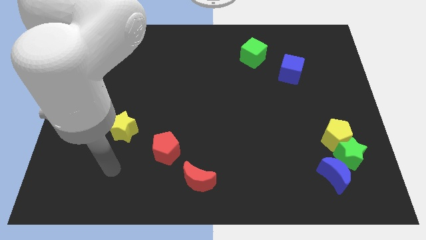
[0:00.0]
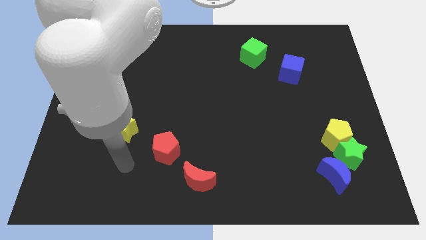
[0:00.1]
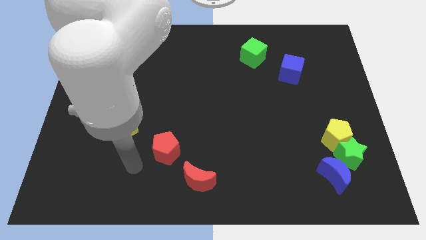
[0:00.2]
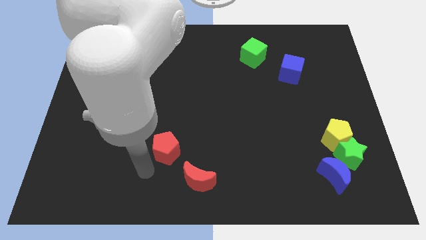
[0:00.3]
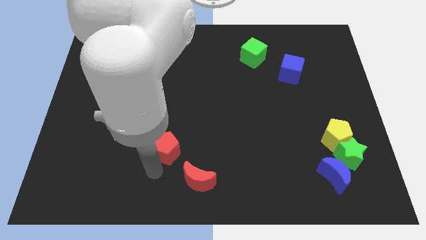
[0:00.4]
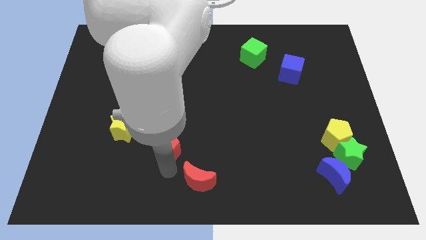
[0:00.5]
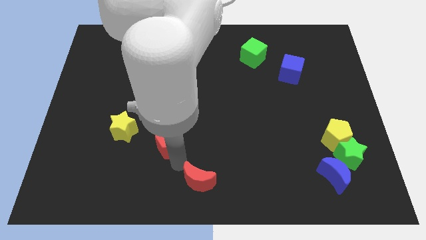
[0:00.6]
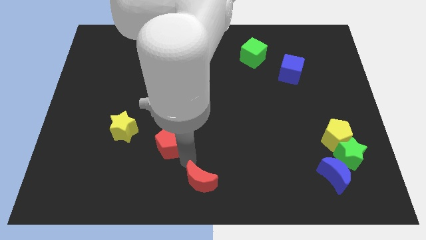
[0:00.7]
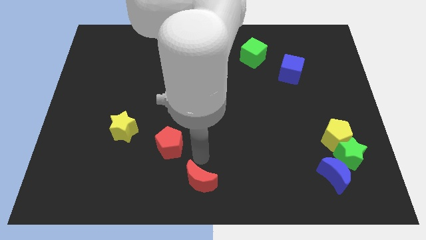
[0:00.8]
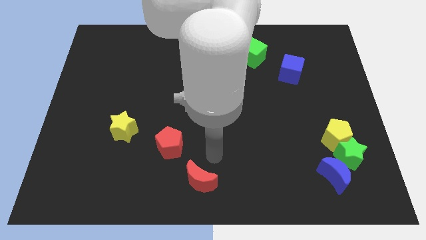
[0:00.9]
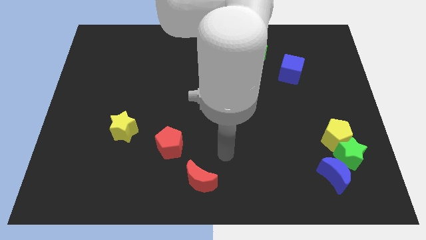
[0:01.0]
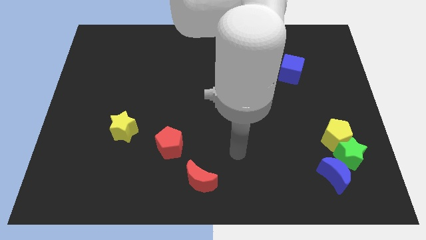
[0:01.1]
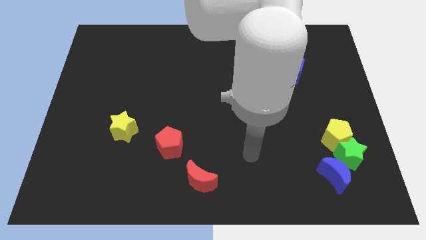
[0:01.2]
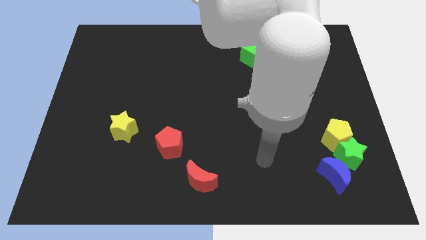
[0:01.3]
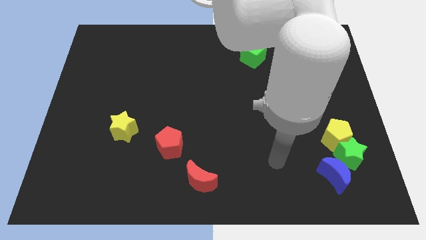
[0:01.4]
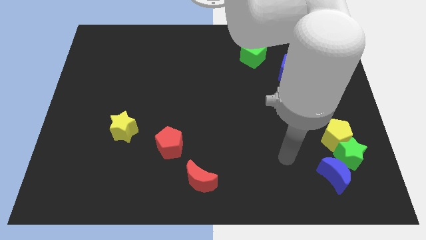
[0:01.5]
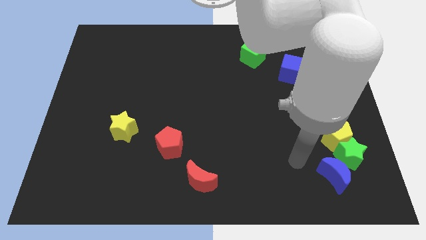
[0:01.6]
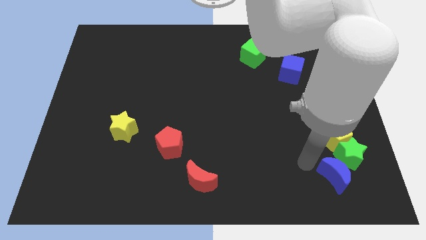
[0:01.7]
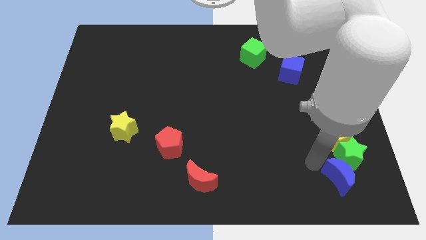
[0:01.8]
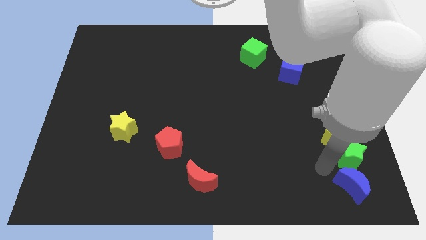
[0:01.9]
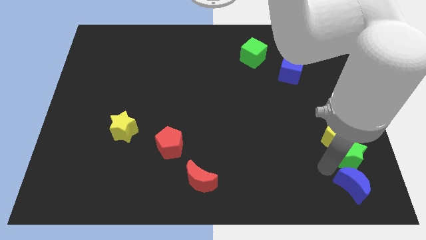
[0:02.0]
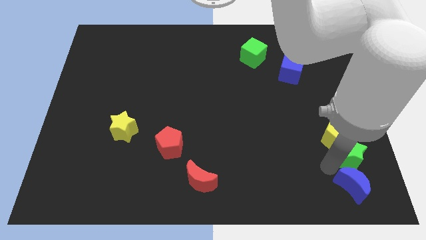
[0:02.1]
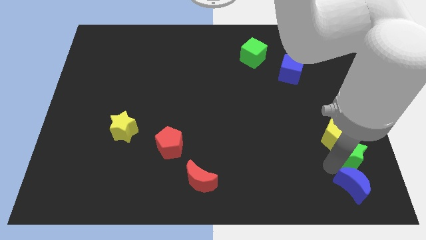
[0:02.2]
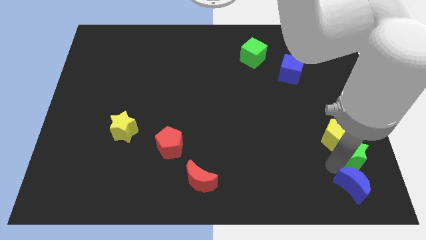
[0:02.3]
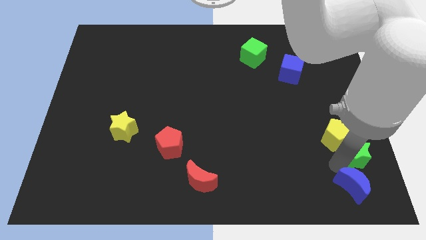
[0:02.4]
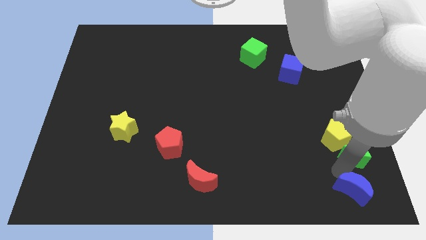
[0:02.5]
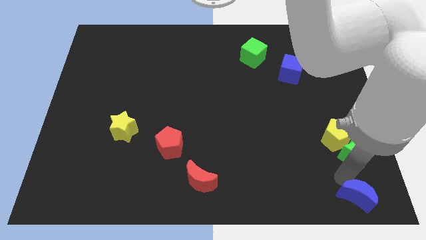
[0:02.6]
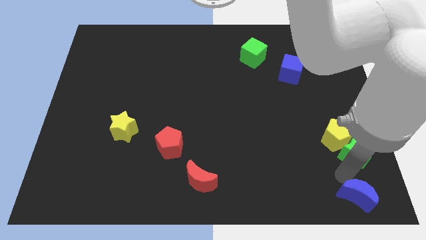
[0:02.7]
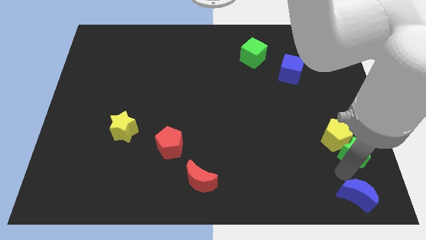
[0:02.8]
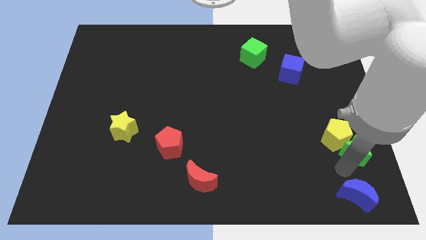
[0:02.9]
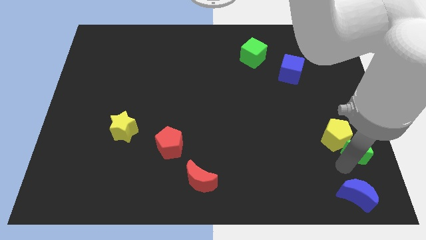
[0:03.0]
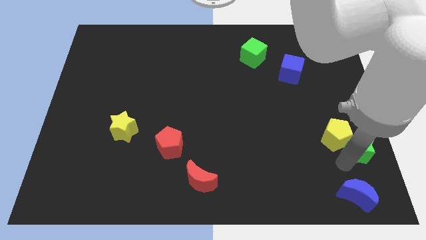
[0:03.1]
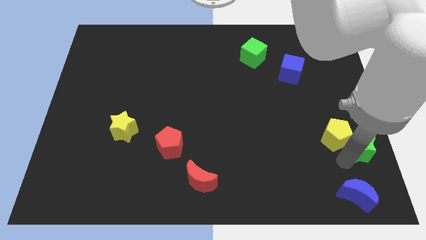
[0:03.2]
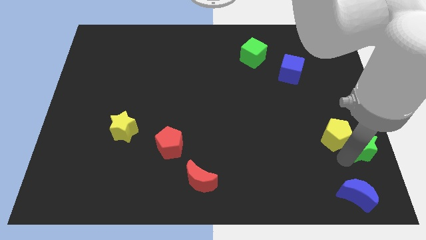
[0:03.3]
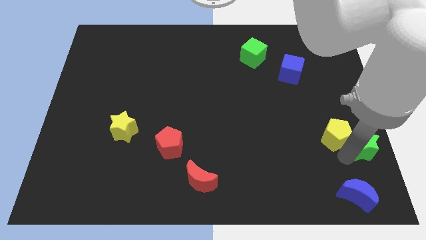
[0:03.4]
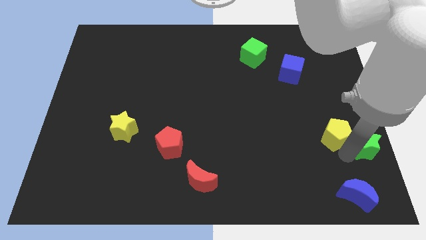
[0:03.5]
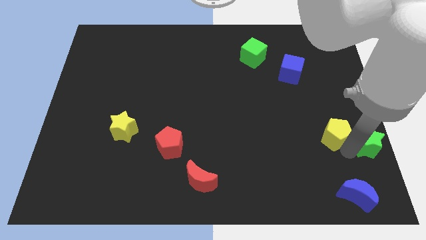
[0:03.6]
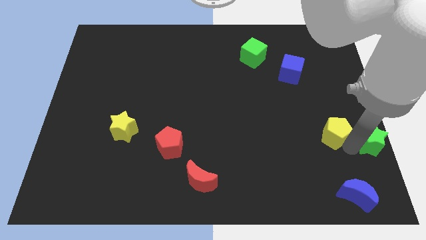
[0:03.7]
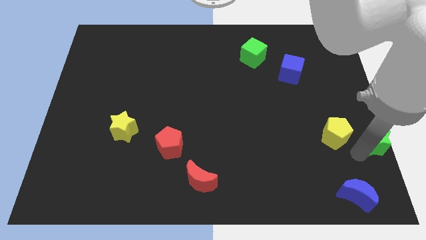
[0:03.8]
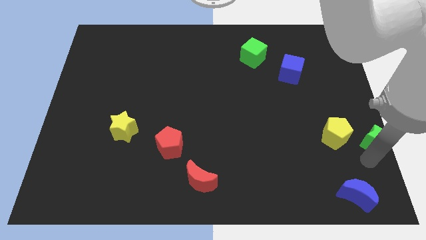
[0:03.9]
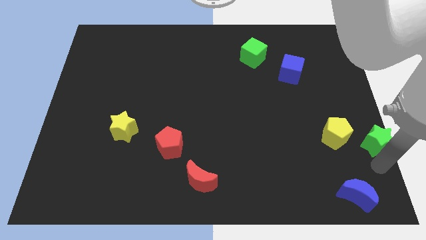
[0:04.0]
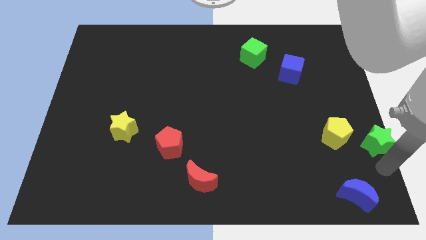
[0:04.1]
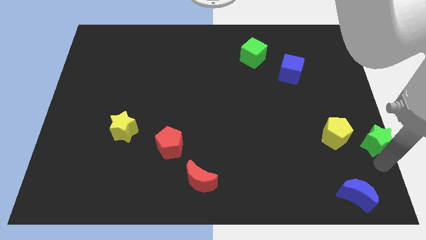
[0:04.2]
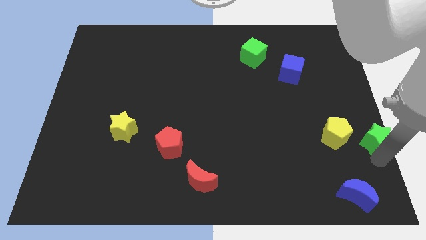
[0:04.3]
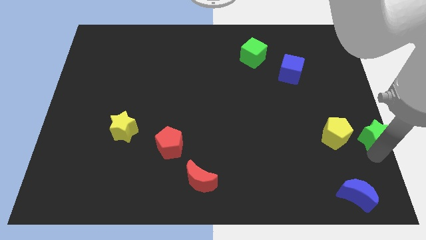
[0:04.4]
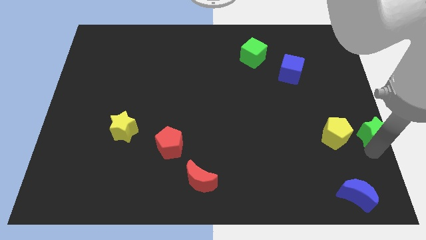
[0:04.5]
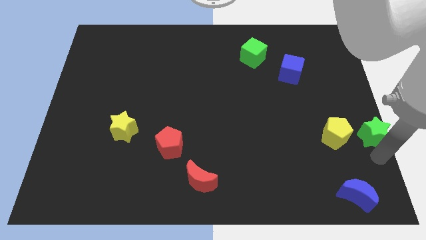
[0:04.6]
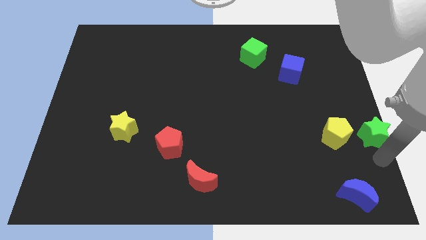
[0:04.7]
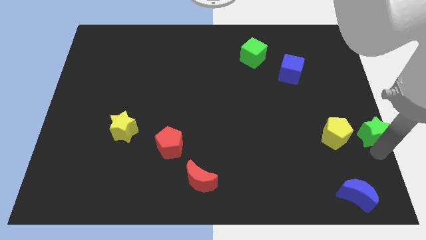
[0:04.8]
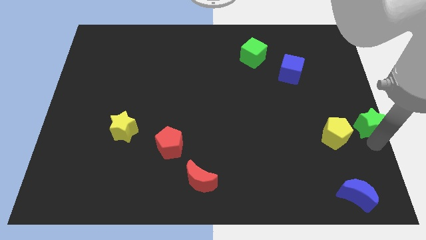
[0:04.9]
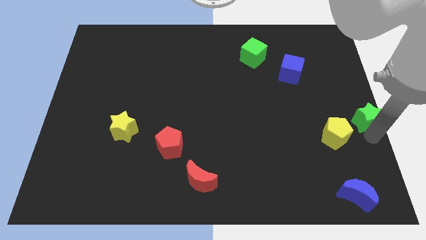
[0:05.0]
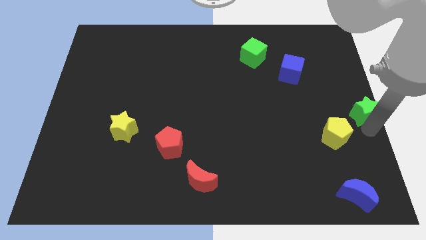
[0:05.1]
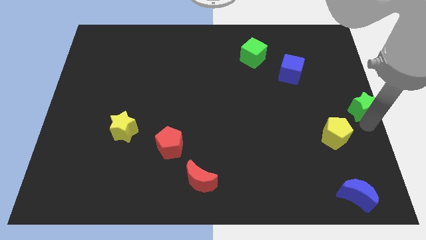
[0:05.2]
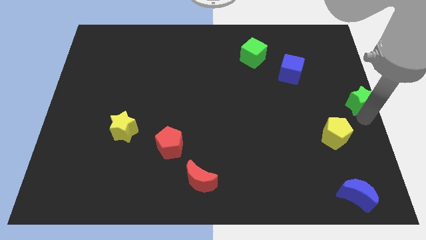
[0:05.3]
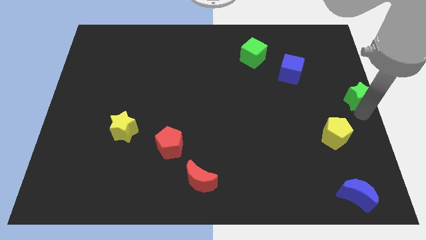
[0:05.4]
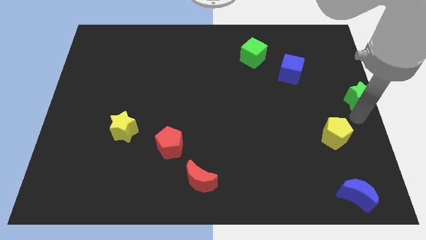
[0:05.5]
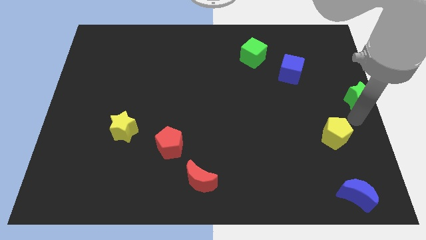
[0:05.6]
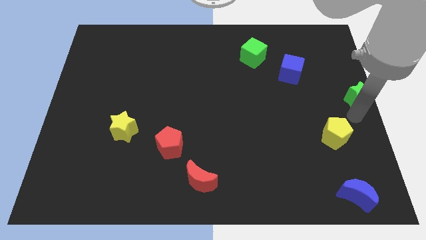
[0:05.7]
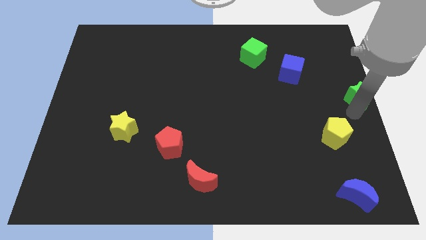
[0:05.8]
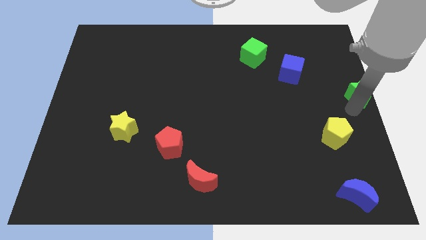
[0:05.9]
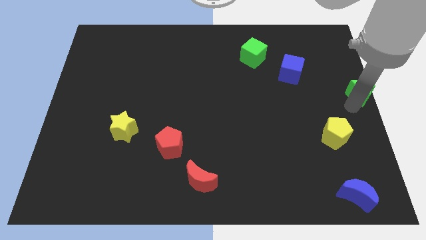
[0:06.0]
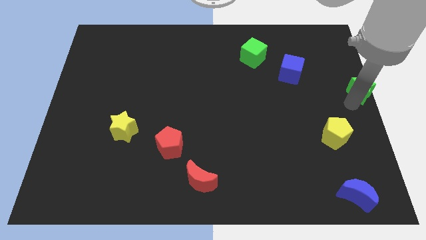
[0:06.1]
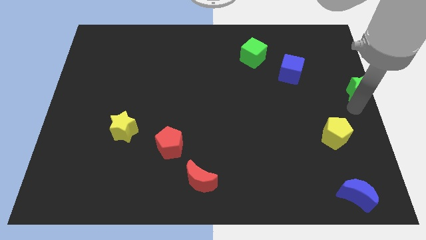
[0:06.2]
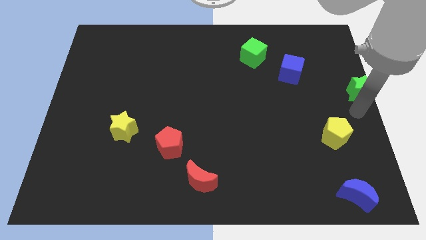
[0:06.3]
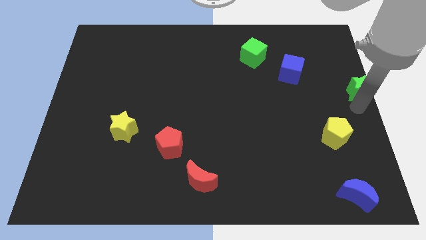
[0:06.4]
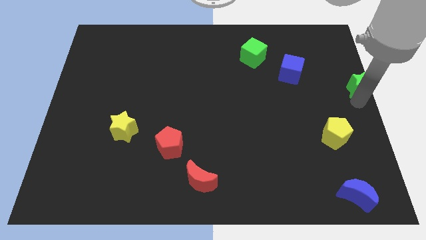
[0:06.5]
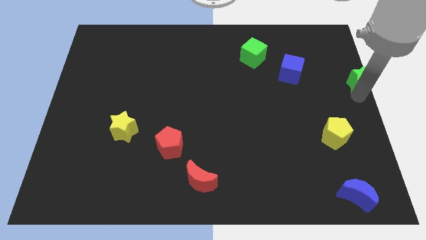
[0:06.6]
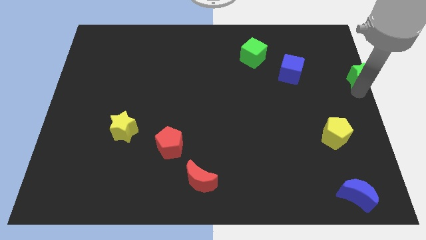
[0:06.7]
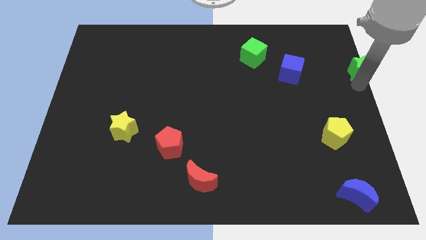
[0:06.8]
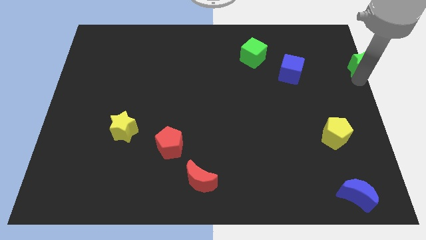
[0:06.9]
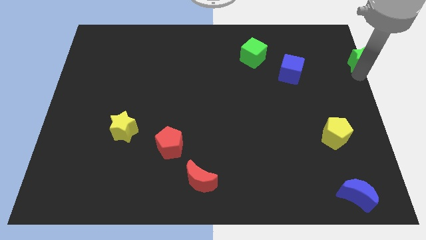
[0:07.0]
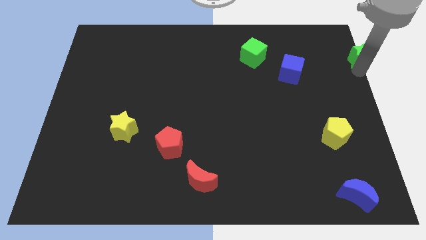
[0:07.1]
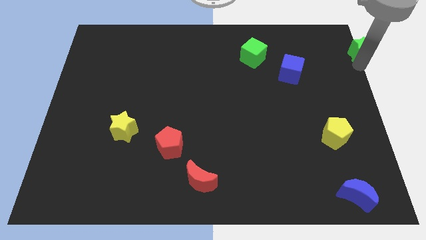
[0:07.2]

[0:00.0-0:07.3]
move the green star to the top right
